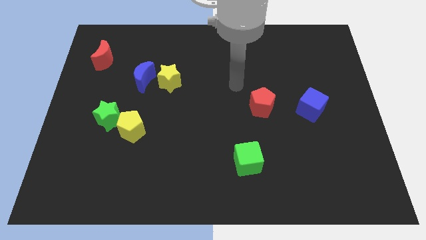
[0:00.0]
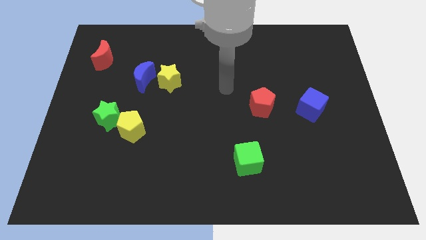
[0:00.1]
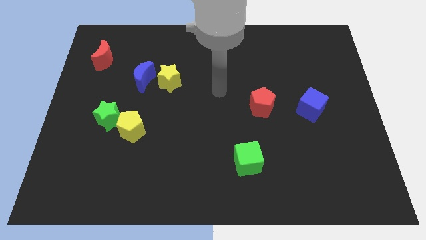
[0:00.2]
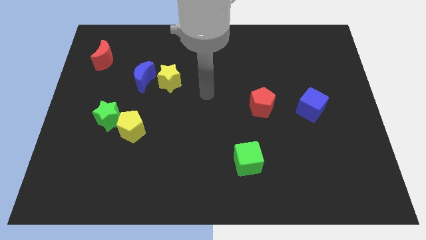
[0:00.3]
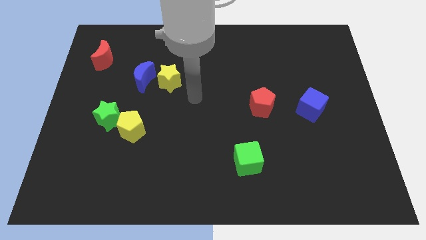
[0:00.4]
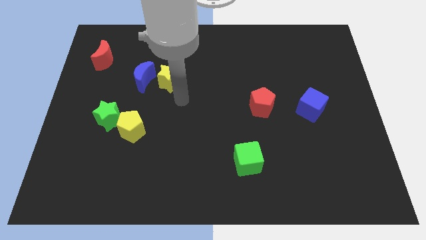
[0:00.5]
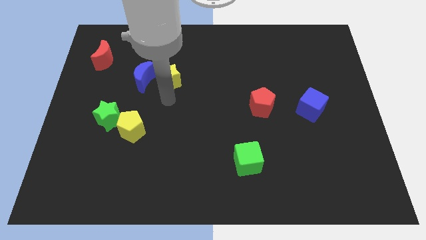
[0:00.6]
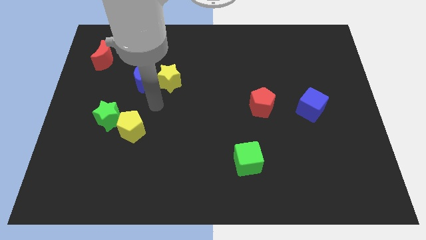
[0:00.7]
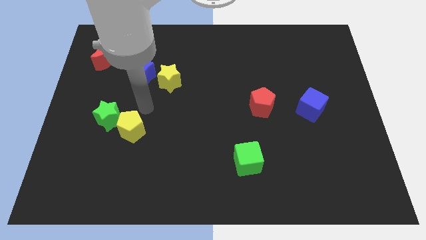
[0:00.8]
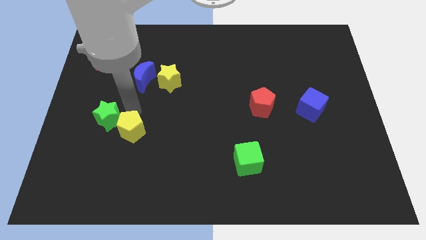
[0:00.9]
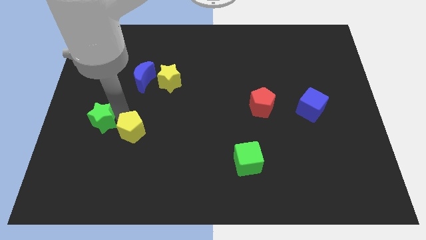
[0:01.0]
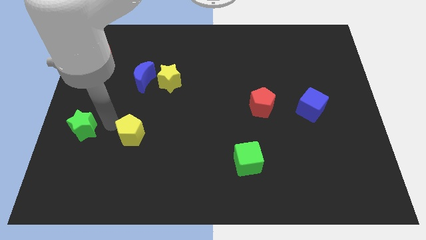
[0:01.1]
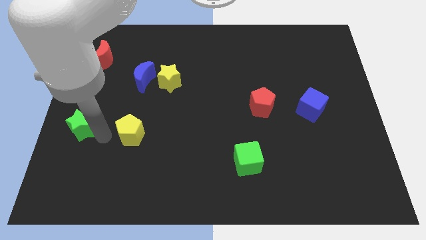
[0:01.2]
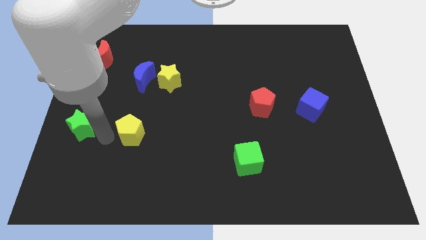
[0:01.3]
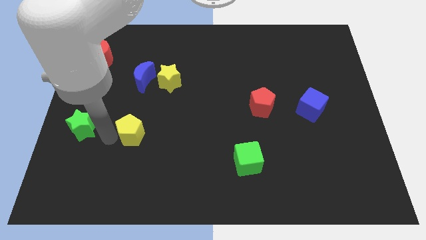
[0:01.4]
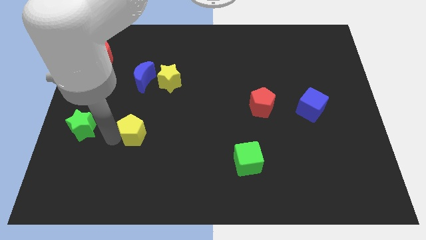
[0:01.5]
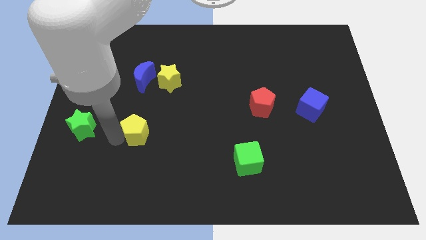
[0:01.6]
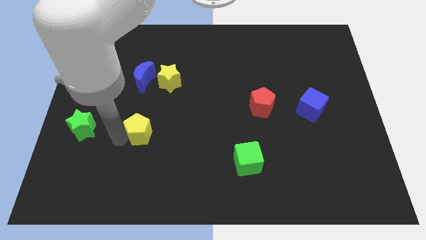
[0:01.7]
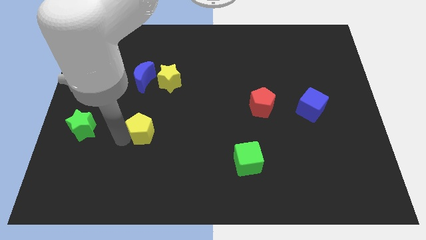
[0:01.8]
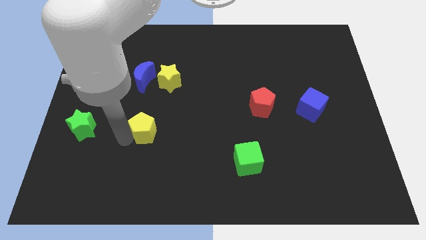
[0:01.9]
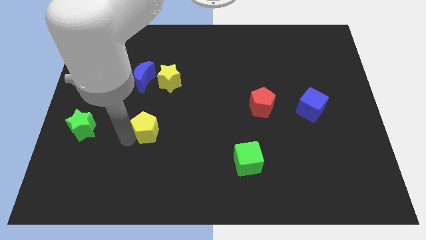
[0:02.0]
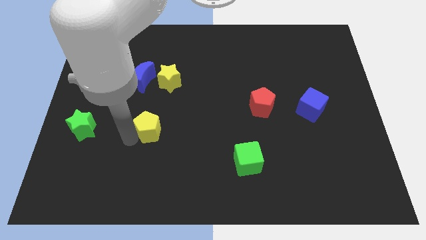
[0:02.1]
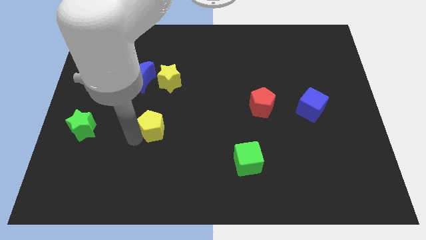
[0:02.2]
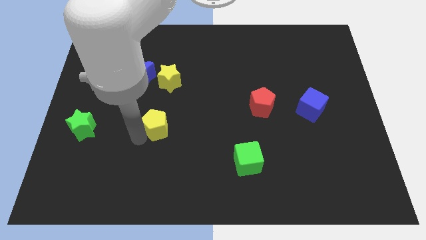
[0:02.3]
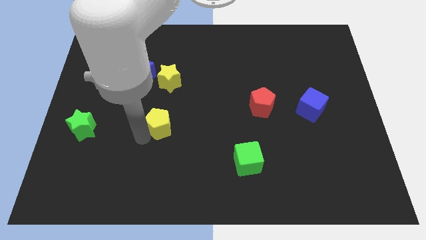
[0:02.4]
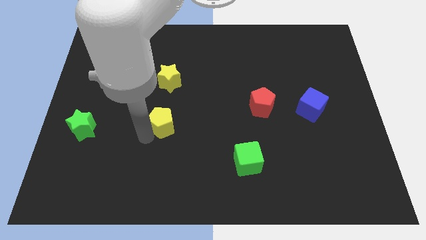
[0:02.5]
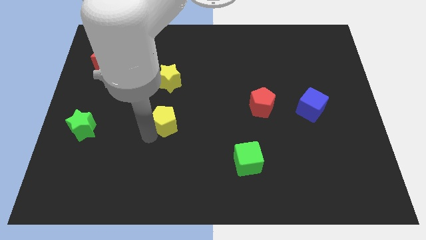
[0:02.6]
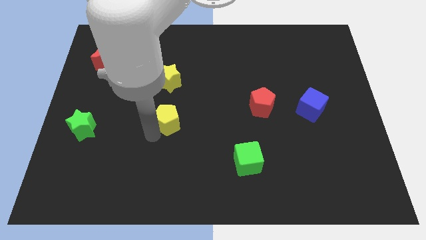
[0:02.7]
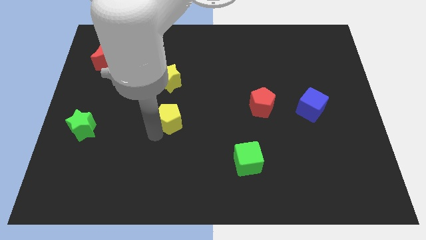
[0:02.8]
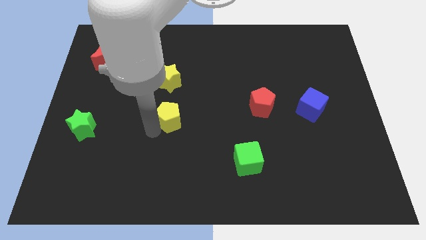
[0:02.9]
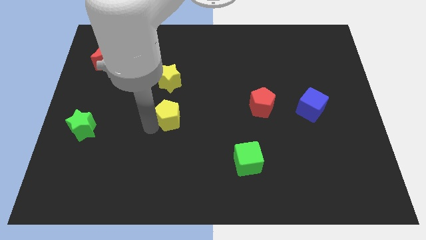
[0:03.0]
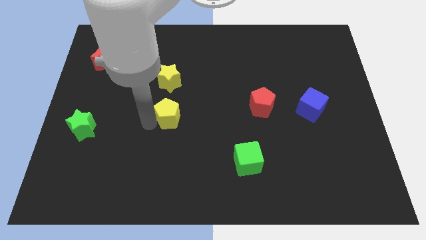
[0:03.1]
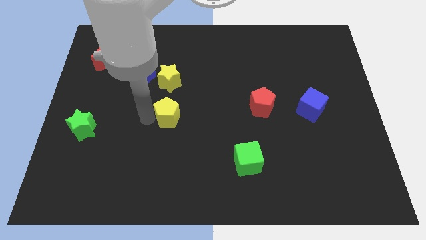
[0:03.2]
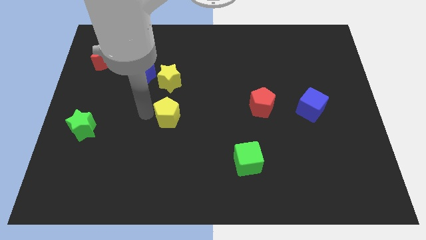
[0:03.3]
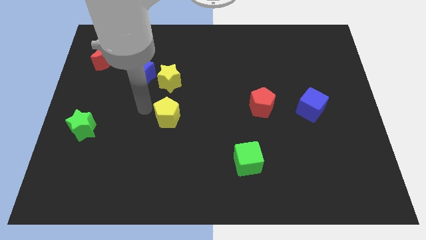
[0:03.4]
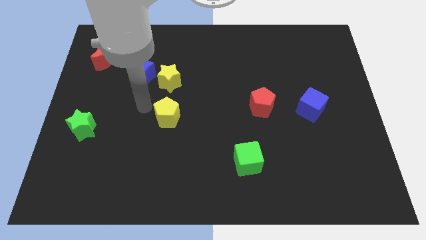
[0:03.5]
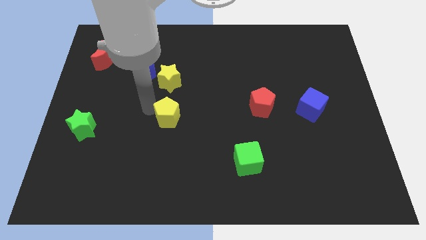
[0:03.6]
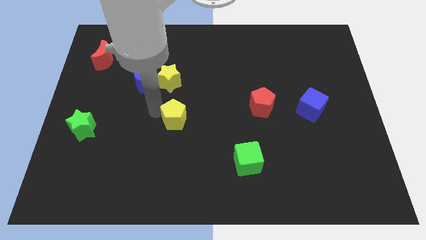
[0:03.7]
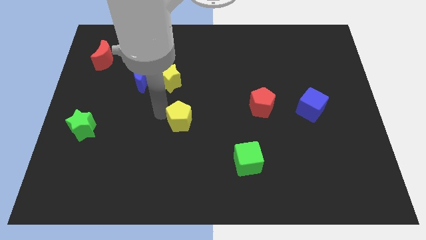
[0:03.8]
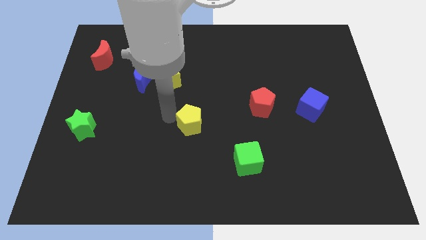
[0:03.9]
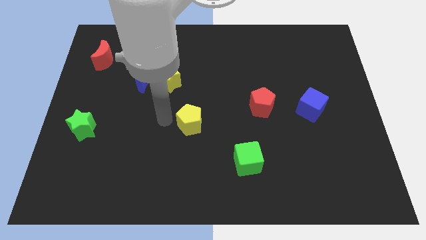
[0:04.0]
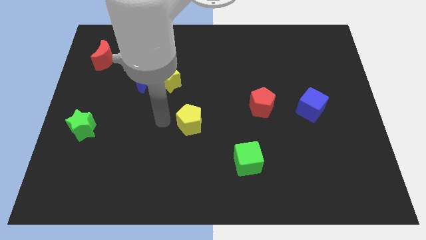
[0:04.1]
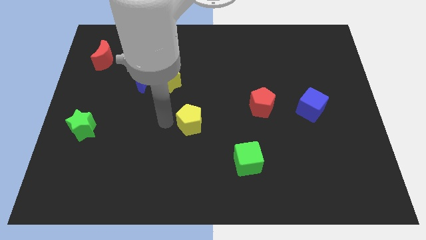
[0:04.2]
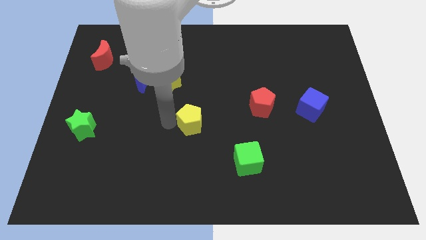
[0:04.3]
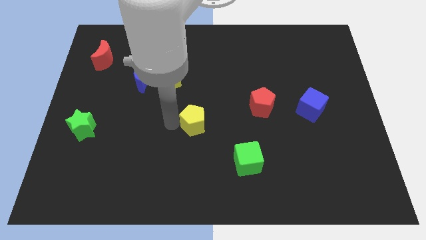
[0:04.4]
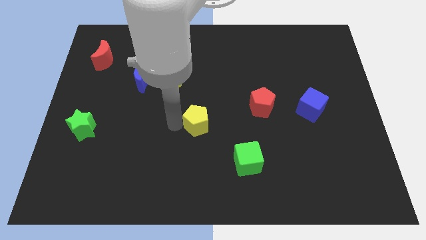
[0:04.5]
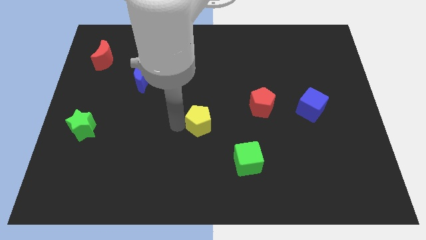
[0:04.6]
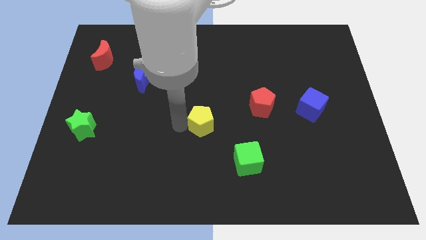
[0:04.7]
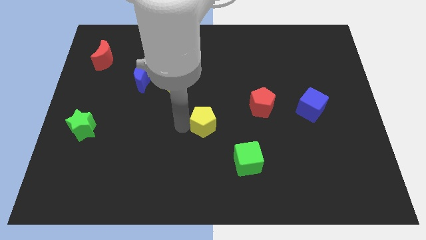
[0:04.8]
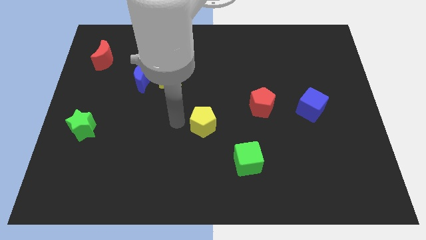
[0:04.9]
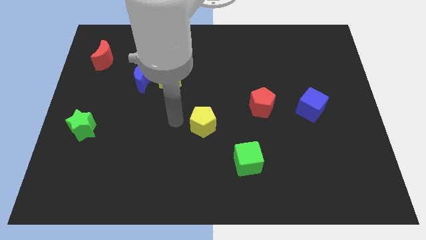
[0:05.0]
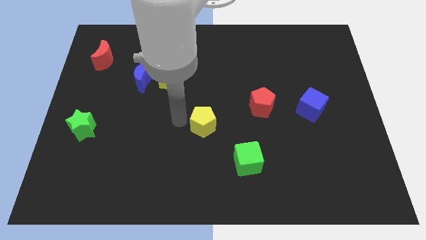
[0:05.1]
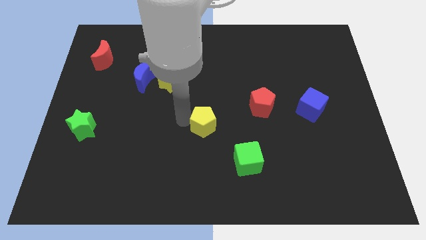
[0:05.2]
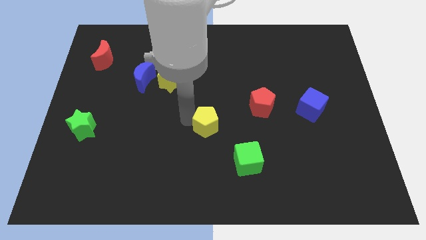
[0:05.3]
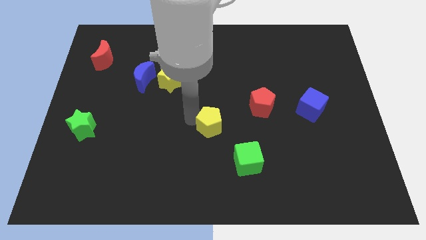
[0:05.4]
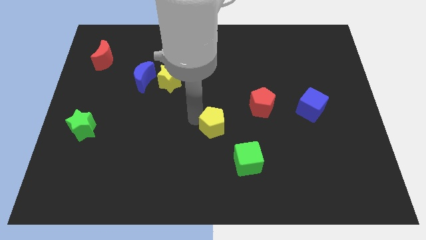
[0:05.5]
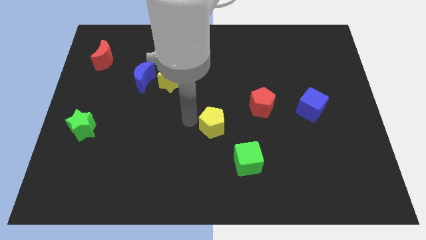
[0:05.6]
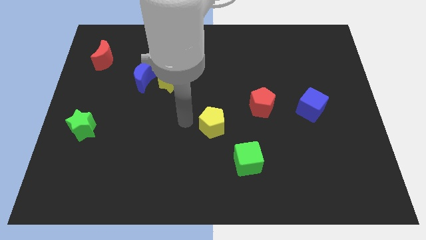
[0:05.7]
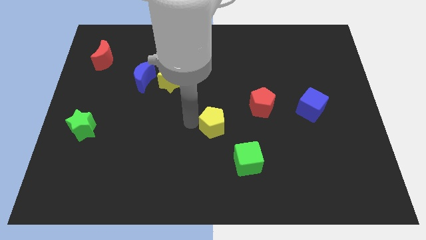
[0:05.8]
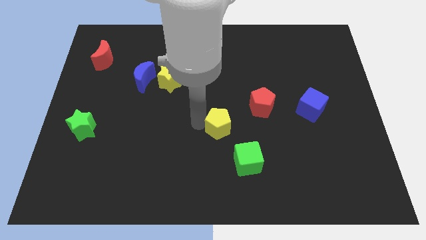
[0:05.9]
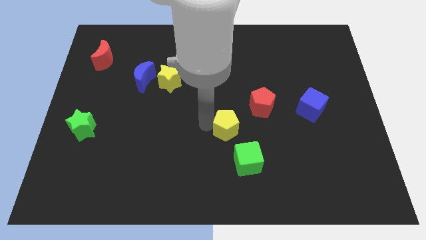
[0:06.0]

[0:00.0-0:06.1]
move the yellow pentagon right

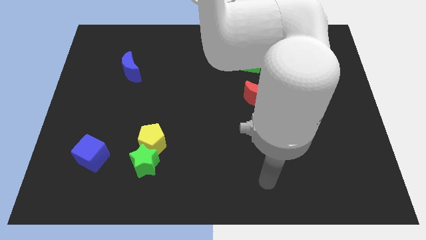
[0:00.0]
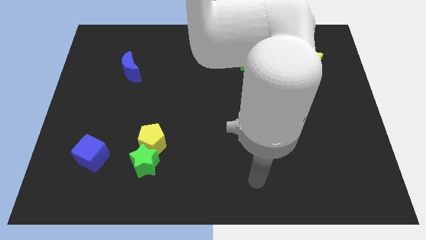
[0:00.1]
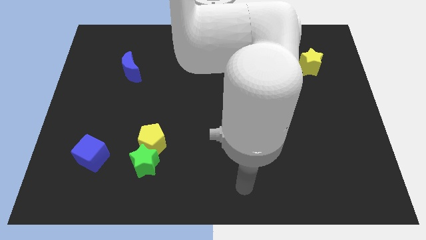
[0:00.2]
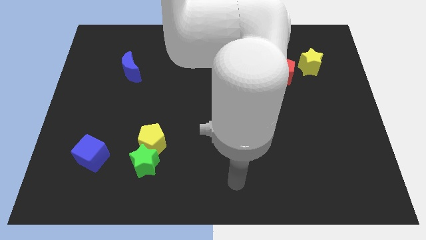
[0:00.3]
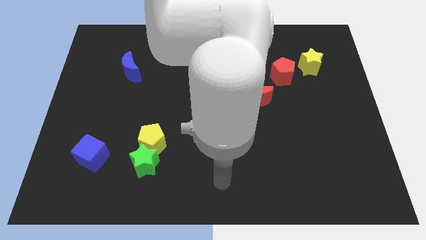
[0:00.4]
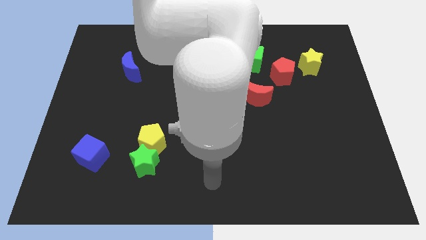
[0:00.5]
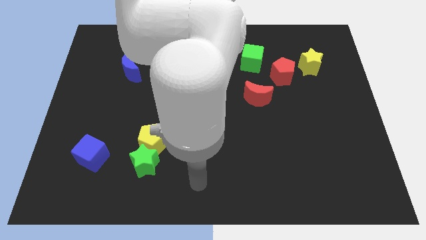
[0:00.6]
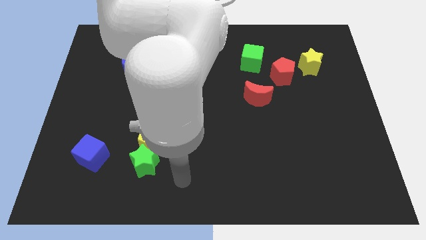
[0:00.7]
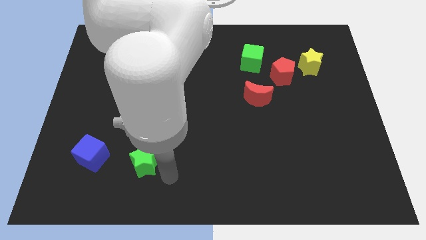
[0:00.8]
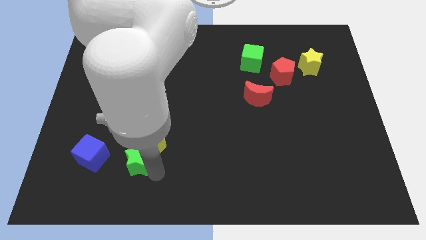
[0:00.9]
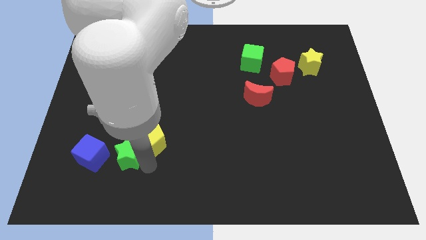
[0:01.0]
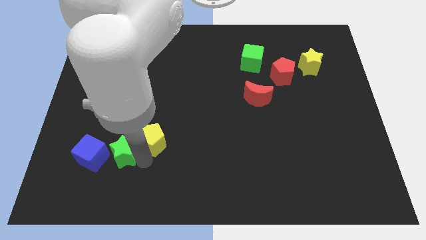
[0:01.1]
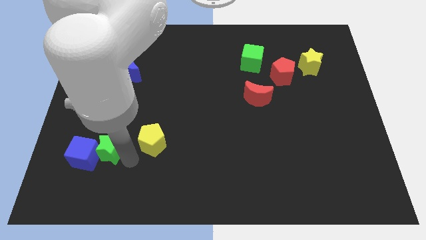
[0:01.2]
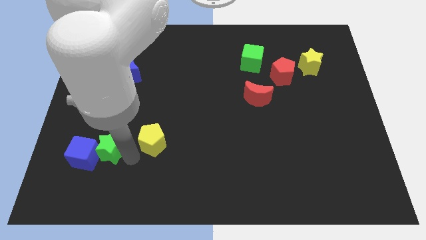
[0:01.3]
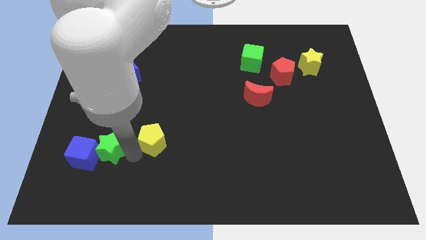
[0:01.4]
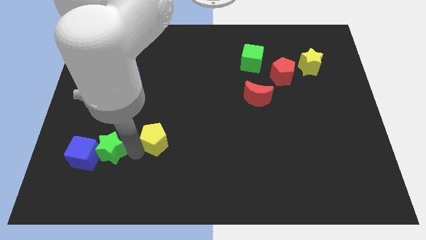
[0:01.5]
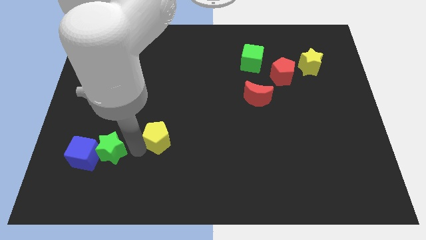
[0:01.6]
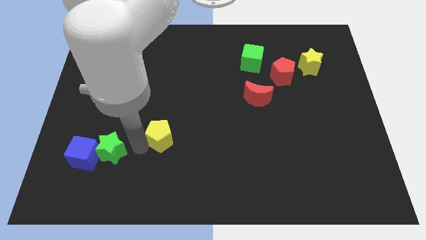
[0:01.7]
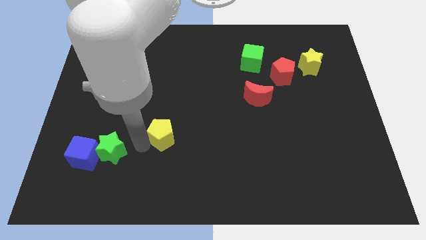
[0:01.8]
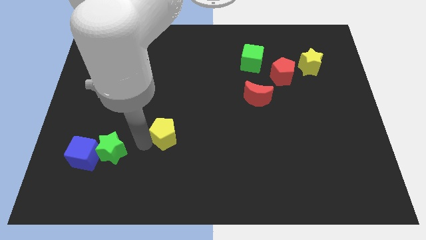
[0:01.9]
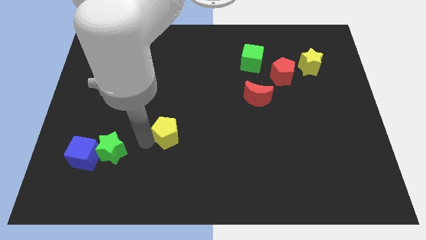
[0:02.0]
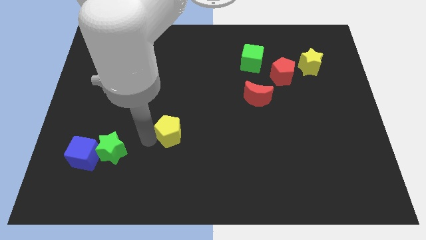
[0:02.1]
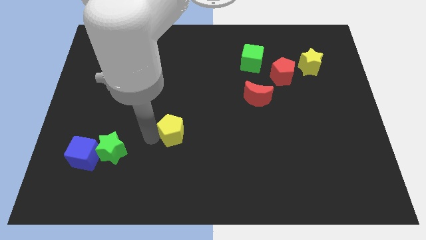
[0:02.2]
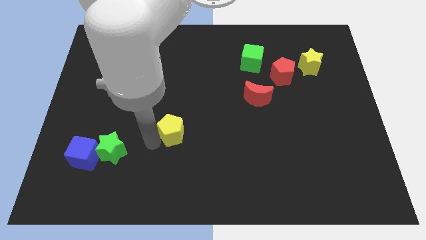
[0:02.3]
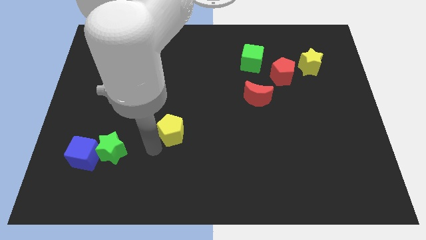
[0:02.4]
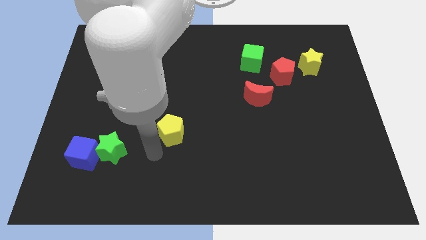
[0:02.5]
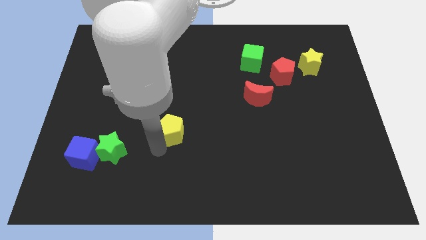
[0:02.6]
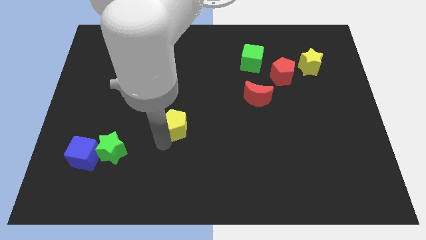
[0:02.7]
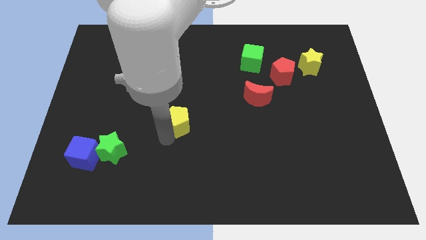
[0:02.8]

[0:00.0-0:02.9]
slide the yellow pentagon somewhat upwards and right
